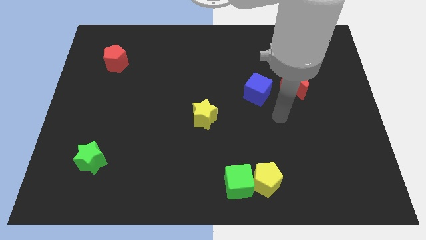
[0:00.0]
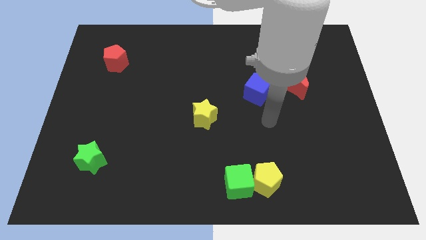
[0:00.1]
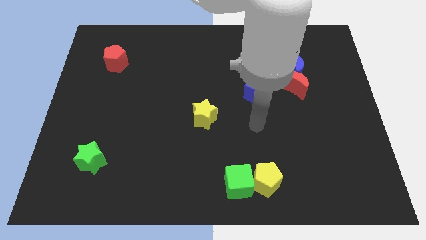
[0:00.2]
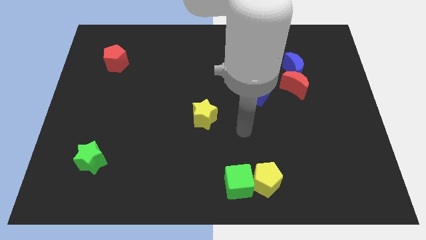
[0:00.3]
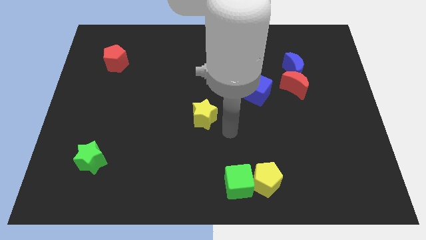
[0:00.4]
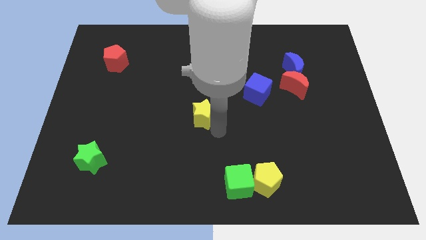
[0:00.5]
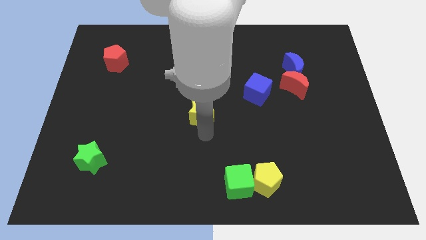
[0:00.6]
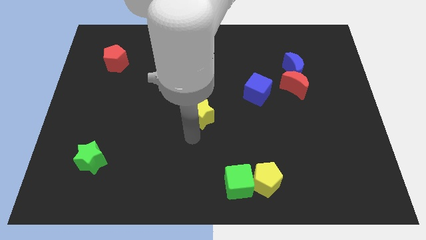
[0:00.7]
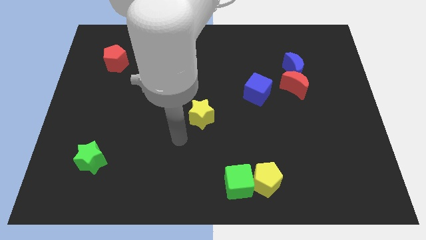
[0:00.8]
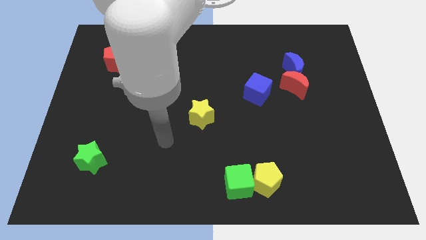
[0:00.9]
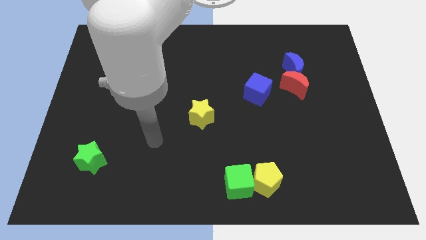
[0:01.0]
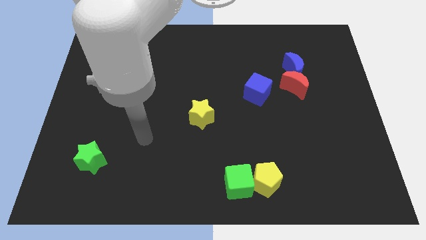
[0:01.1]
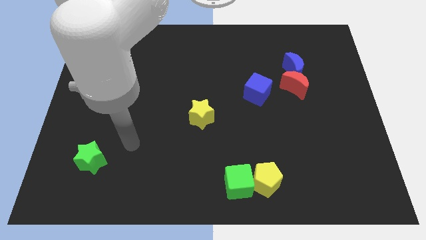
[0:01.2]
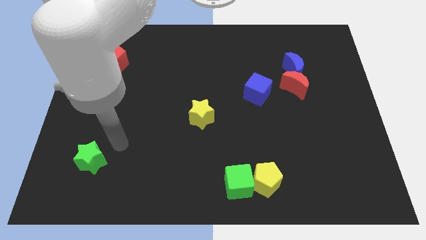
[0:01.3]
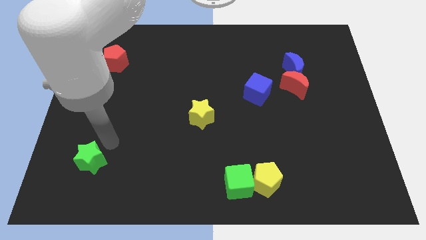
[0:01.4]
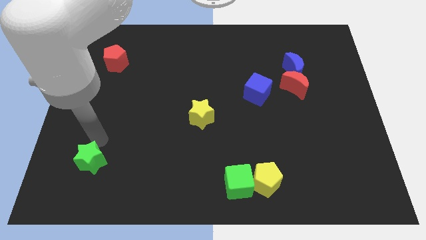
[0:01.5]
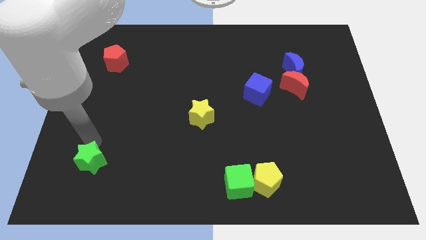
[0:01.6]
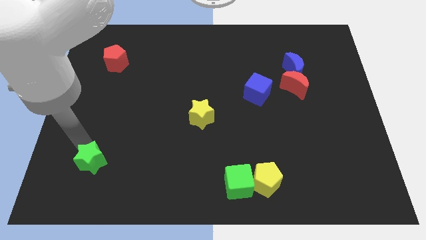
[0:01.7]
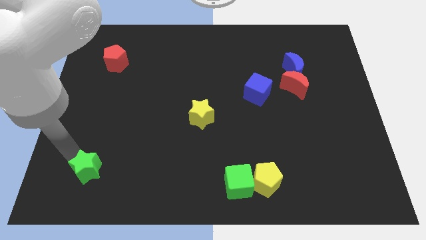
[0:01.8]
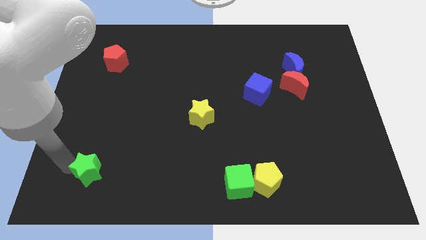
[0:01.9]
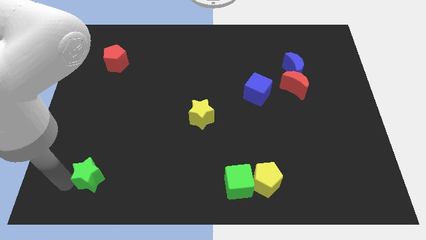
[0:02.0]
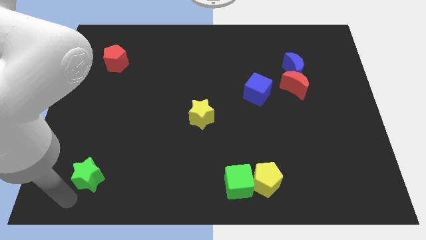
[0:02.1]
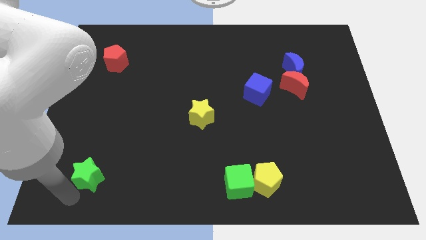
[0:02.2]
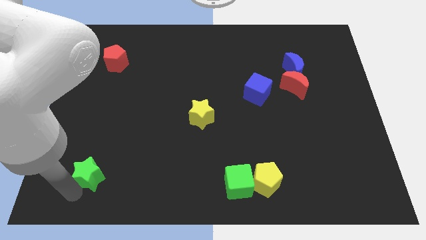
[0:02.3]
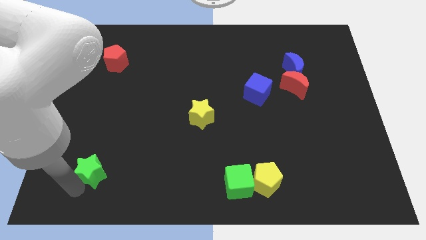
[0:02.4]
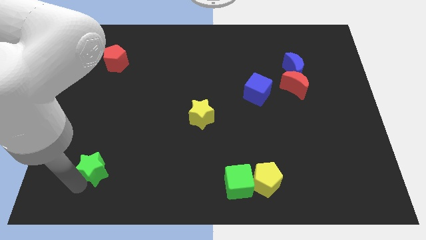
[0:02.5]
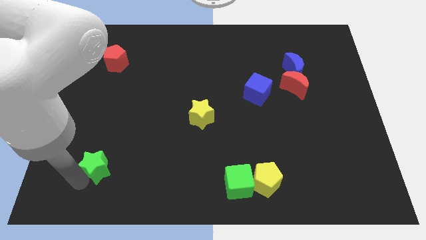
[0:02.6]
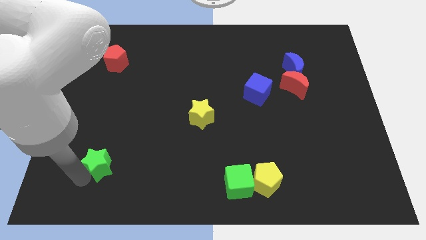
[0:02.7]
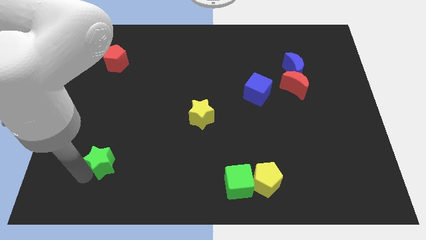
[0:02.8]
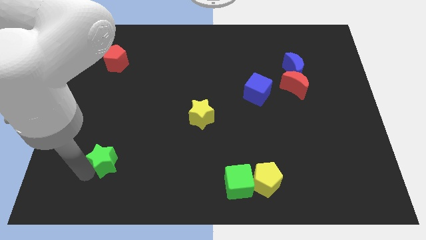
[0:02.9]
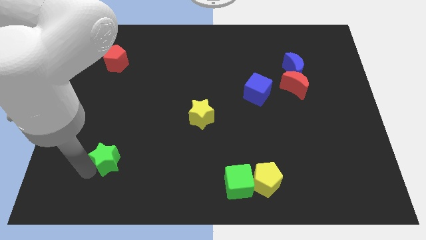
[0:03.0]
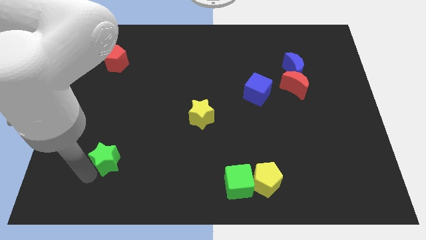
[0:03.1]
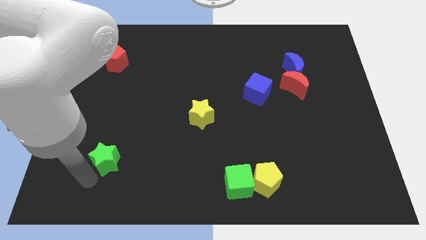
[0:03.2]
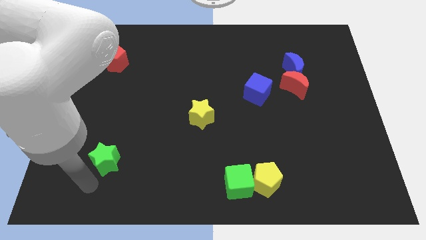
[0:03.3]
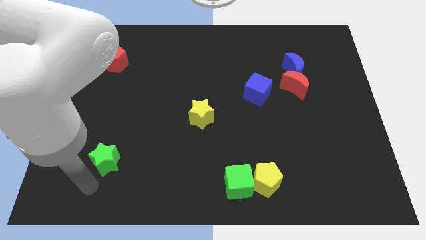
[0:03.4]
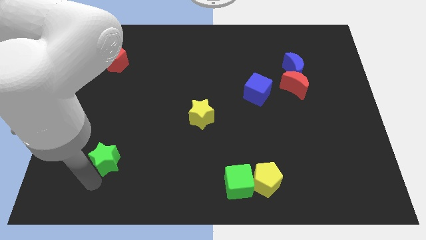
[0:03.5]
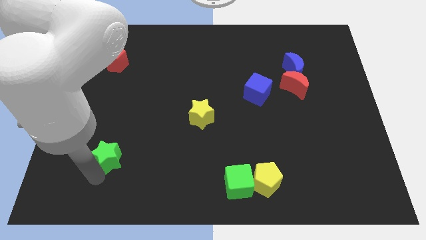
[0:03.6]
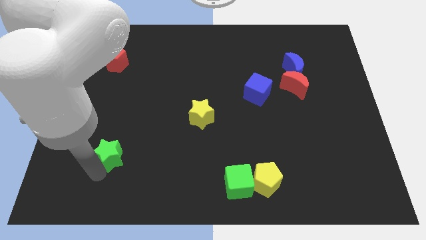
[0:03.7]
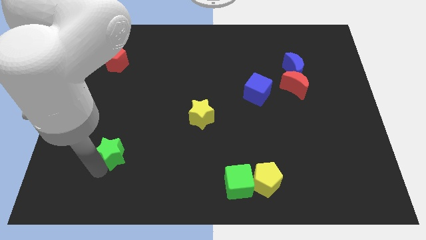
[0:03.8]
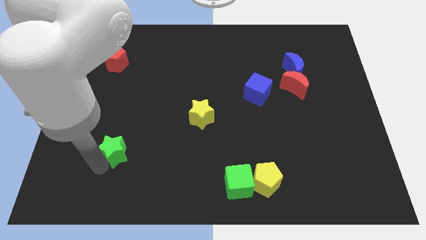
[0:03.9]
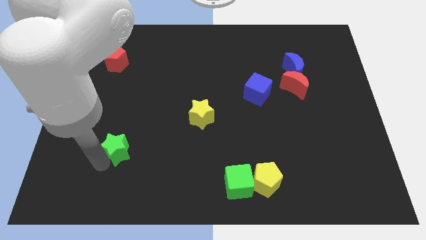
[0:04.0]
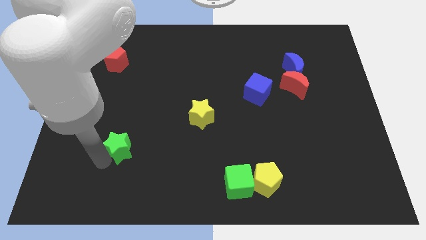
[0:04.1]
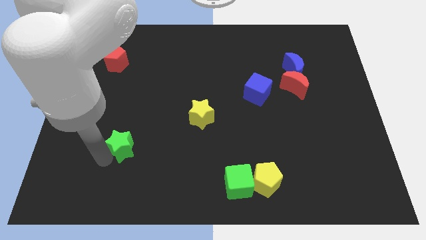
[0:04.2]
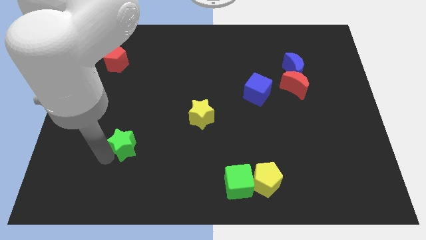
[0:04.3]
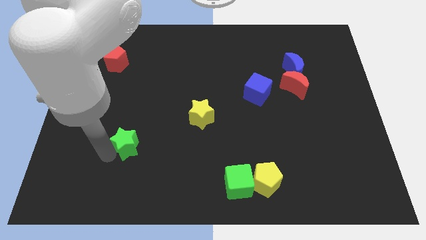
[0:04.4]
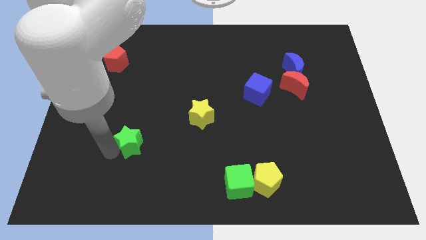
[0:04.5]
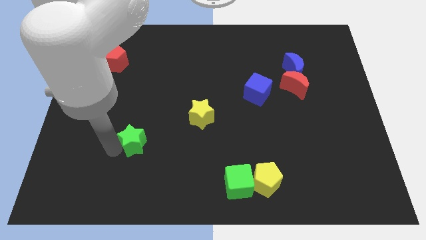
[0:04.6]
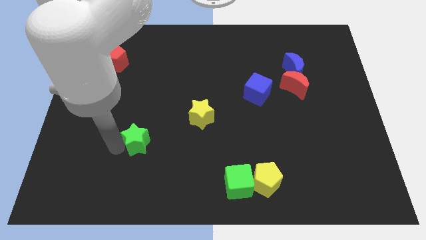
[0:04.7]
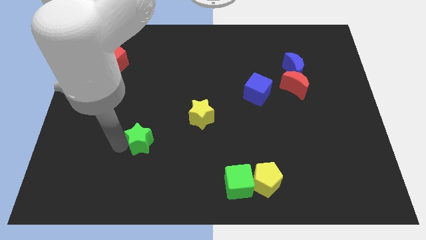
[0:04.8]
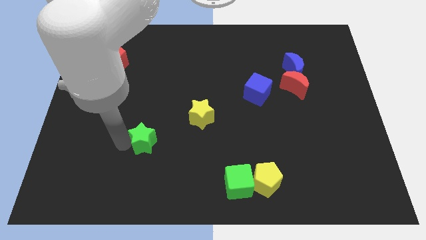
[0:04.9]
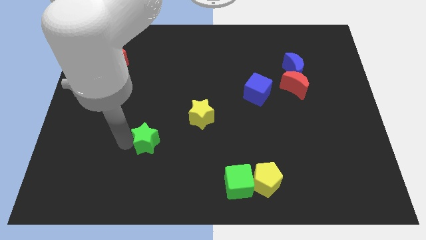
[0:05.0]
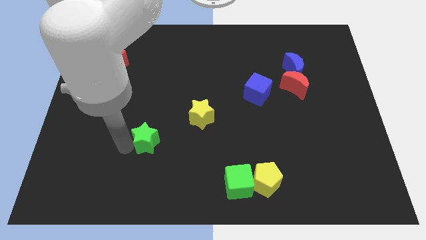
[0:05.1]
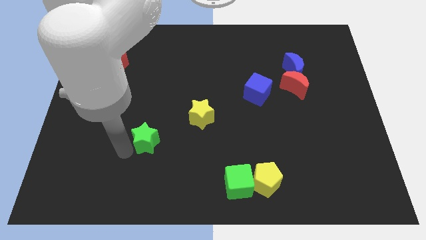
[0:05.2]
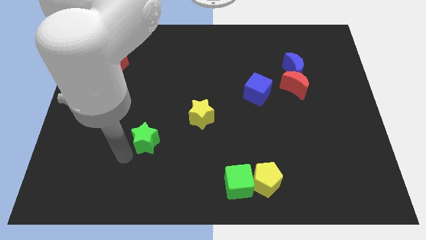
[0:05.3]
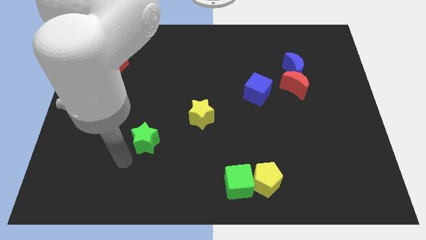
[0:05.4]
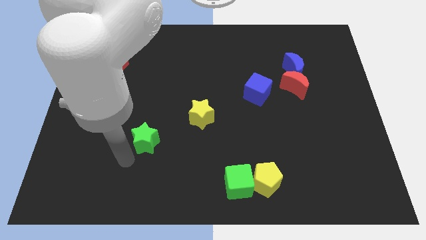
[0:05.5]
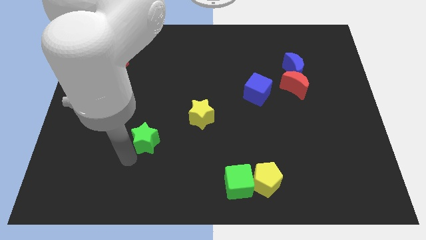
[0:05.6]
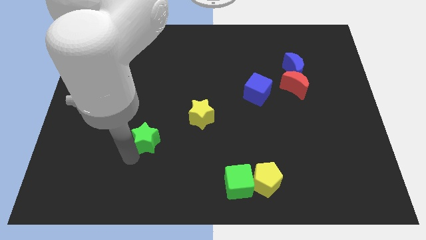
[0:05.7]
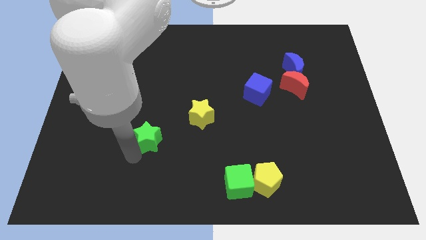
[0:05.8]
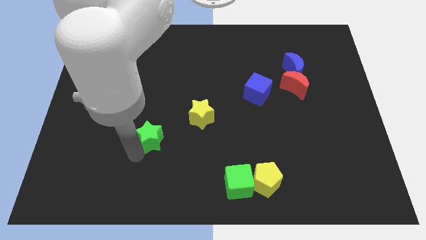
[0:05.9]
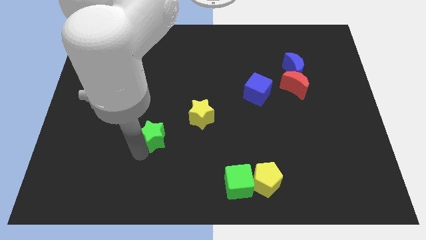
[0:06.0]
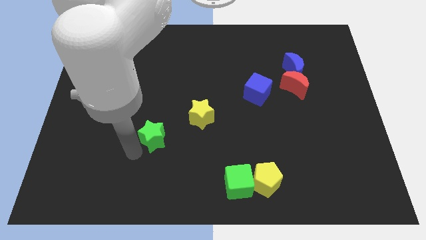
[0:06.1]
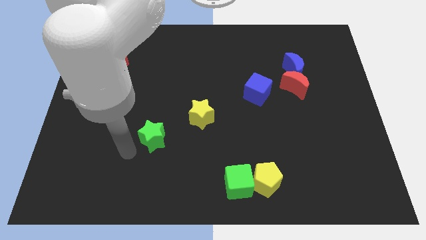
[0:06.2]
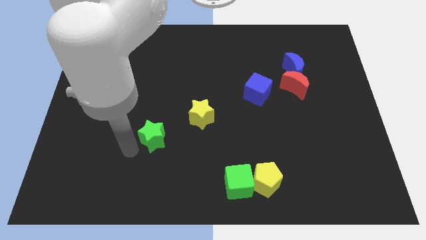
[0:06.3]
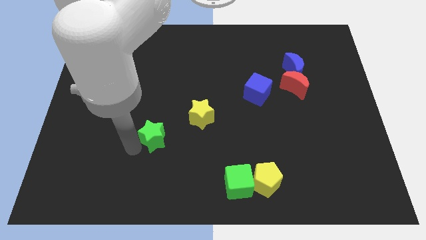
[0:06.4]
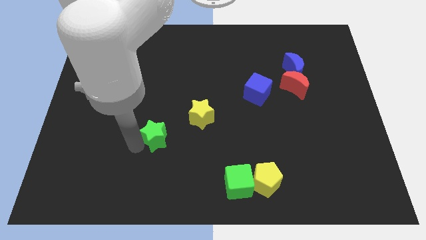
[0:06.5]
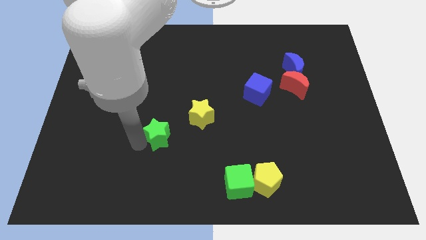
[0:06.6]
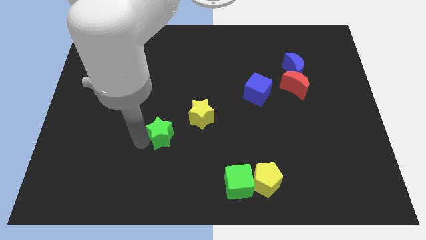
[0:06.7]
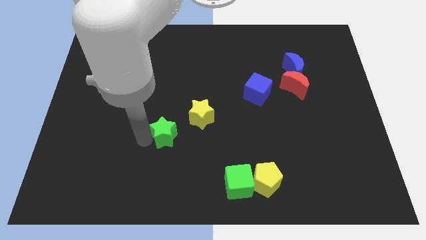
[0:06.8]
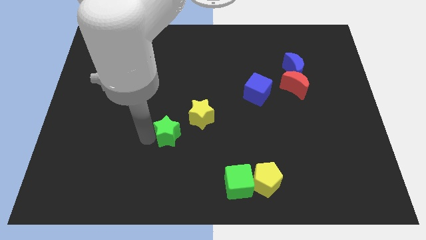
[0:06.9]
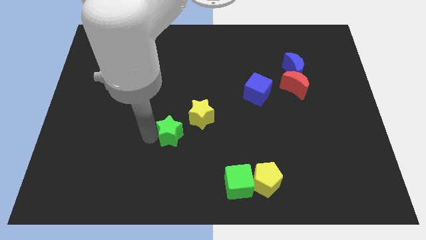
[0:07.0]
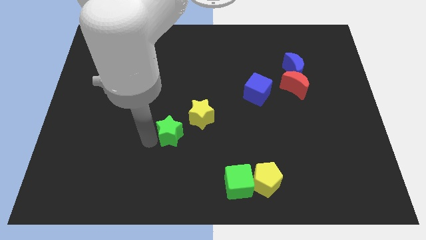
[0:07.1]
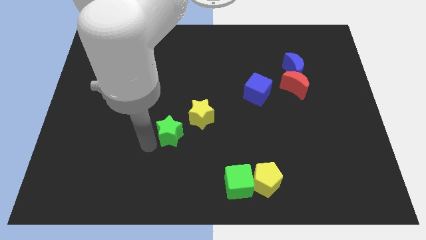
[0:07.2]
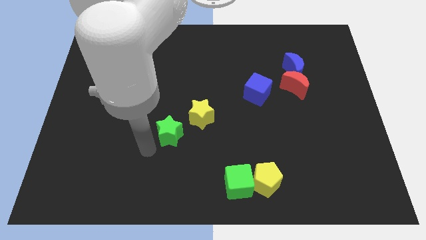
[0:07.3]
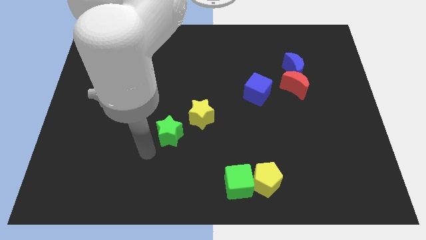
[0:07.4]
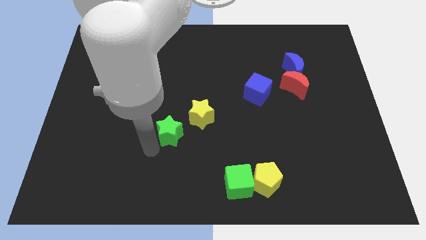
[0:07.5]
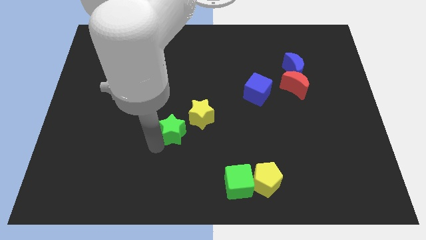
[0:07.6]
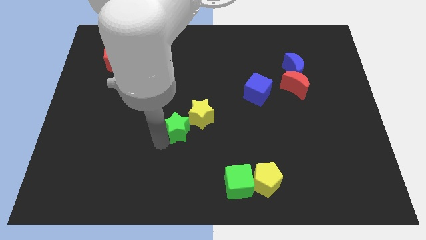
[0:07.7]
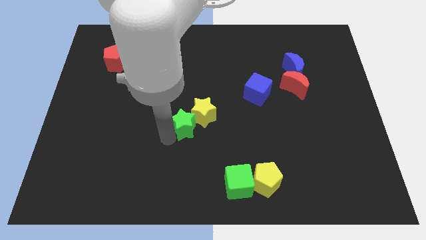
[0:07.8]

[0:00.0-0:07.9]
put the green star towards the yellow star
